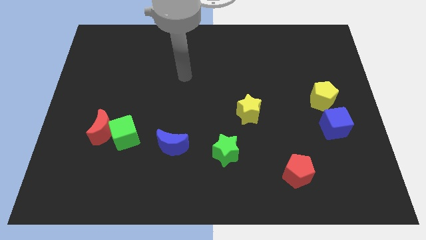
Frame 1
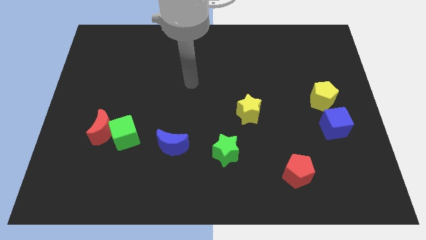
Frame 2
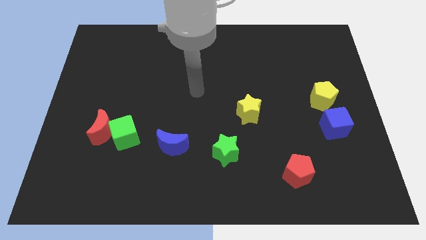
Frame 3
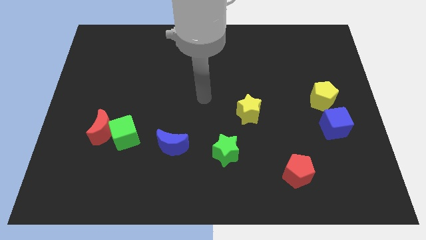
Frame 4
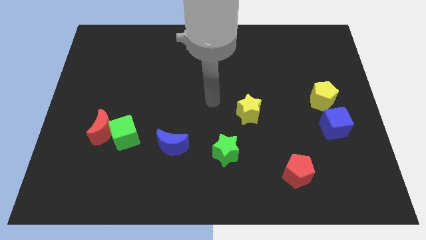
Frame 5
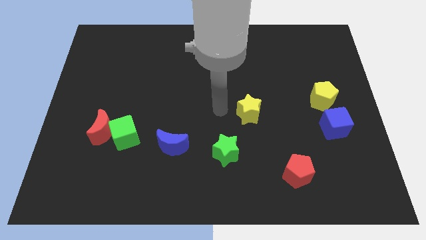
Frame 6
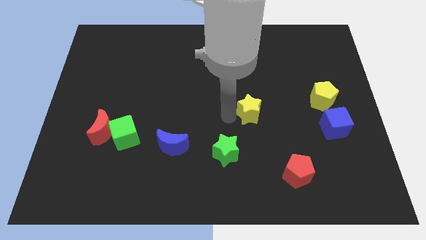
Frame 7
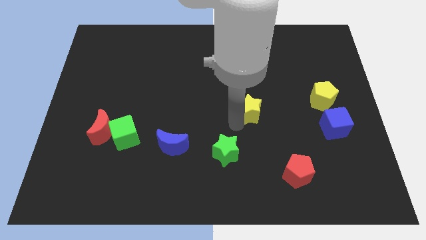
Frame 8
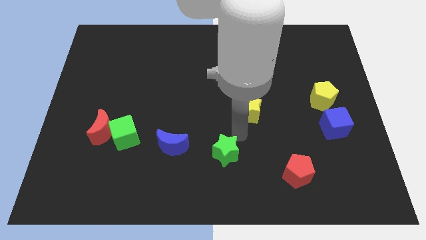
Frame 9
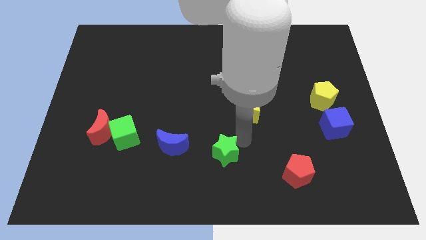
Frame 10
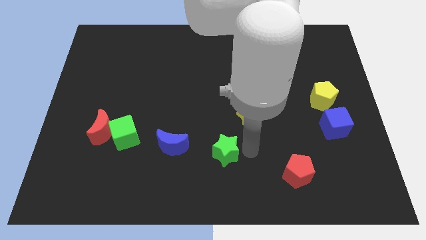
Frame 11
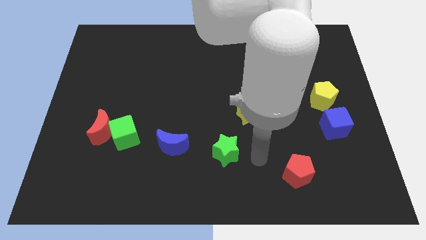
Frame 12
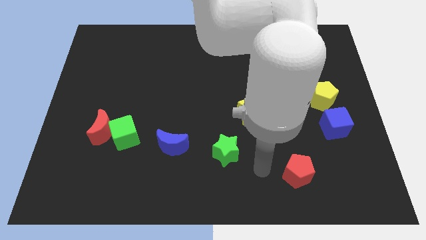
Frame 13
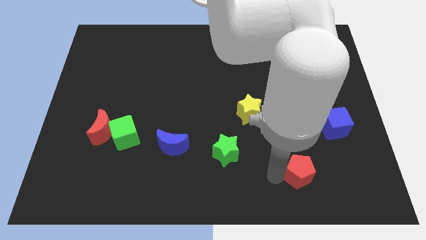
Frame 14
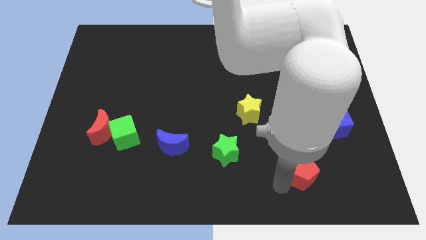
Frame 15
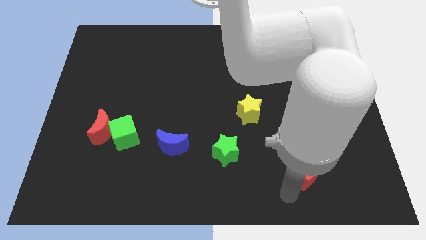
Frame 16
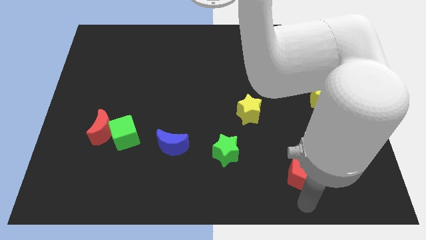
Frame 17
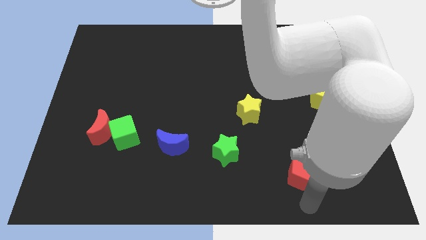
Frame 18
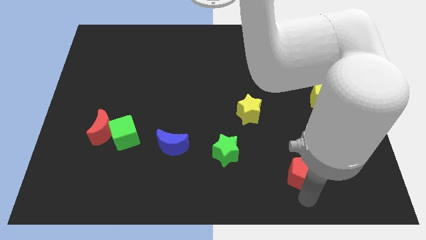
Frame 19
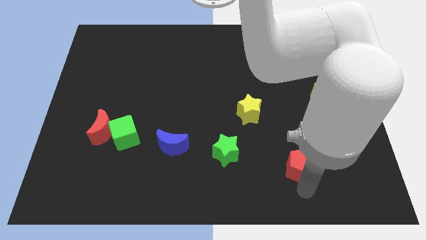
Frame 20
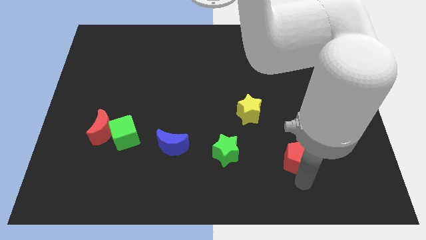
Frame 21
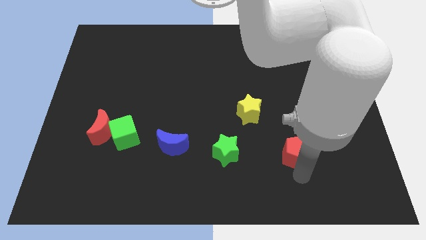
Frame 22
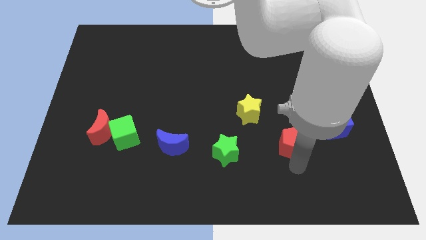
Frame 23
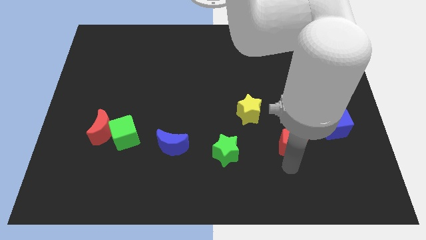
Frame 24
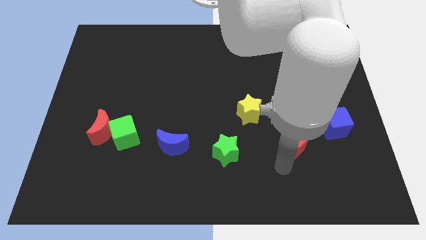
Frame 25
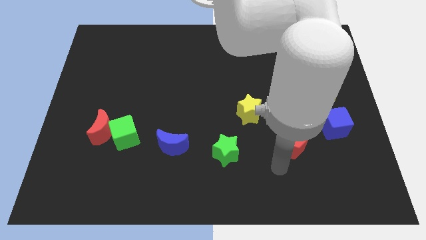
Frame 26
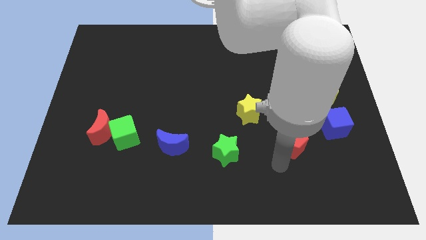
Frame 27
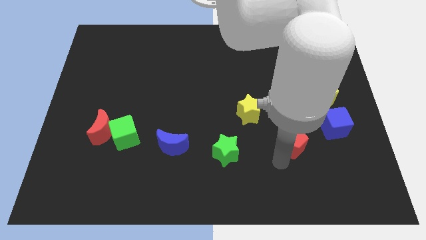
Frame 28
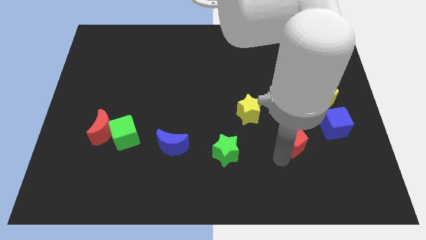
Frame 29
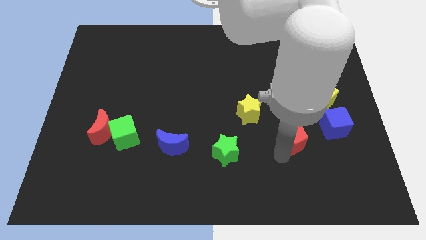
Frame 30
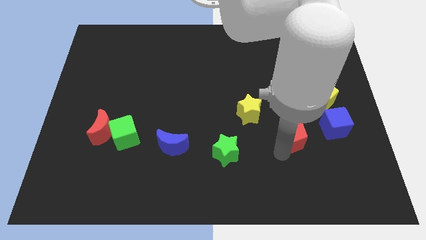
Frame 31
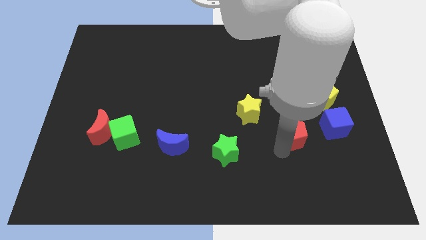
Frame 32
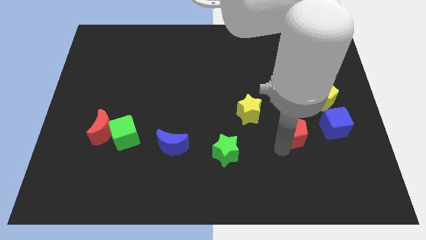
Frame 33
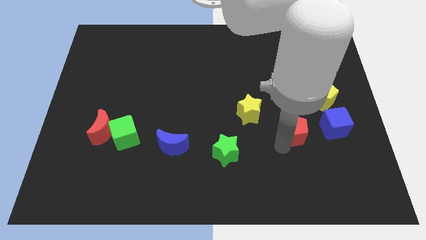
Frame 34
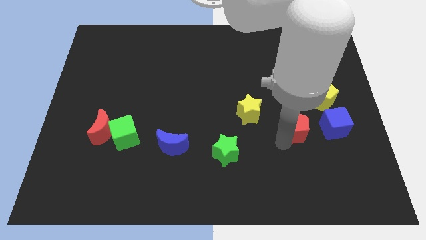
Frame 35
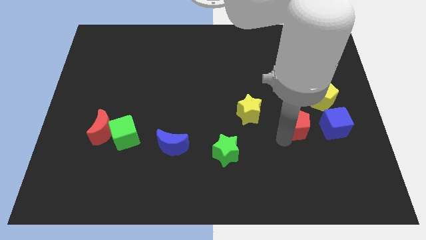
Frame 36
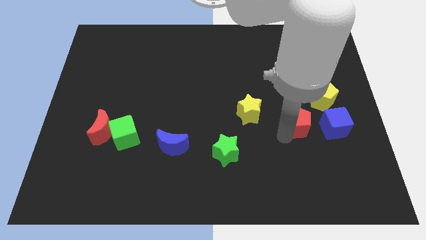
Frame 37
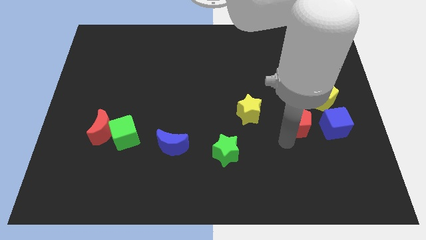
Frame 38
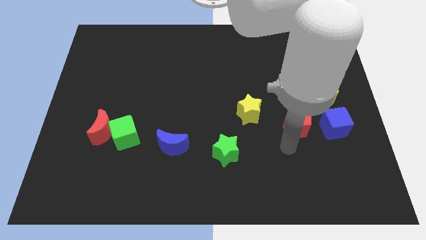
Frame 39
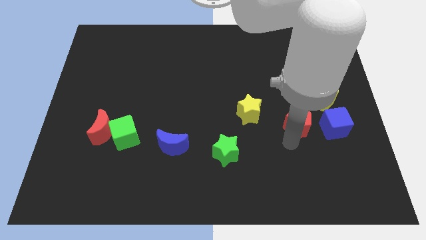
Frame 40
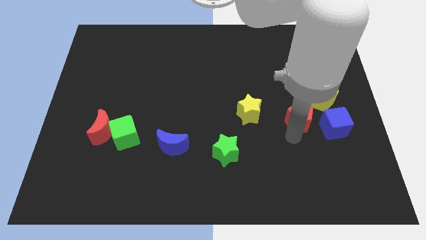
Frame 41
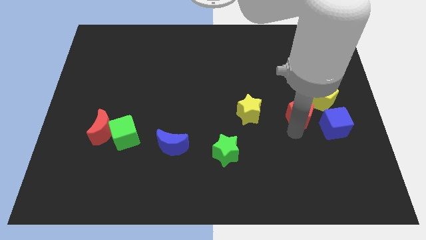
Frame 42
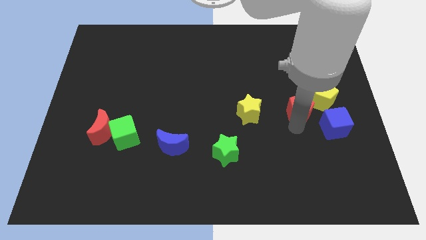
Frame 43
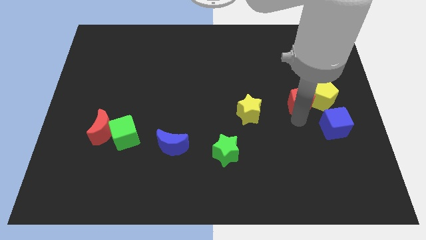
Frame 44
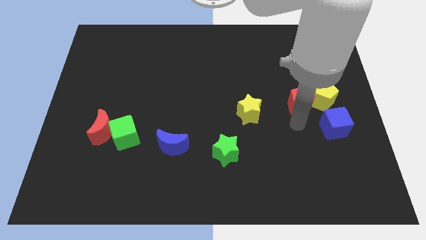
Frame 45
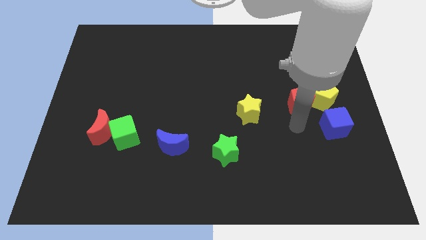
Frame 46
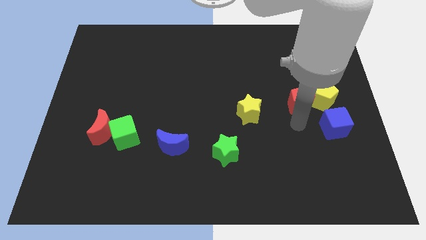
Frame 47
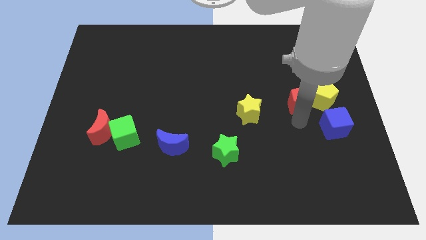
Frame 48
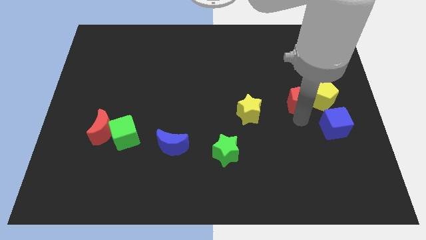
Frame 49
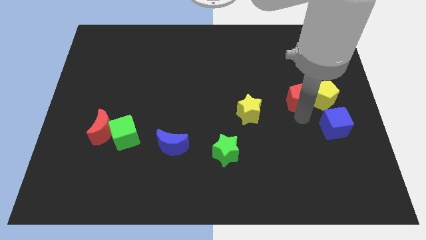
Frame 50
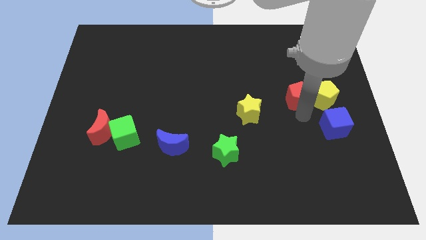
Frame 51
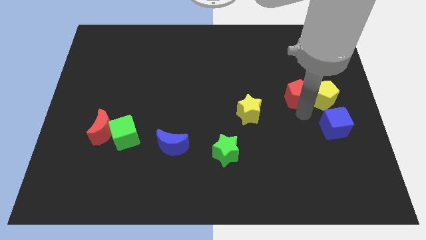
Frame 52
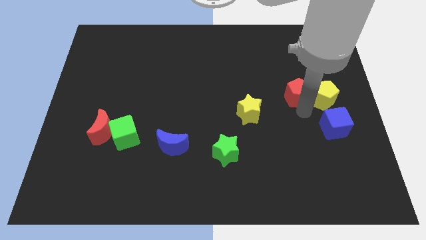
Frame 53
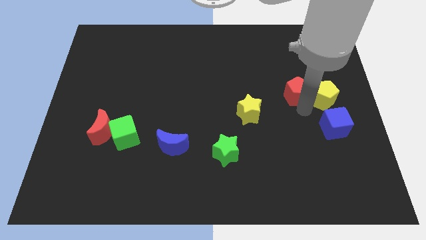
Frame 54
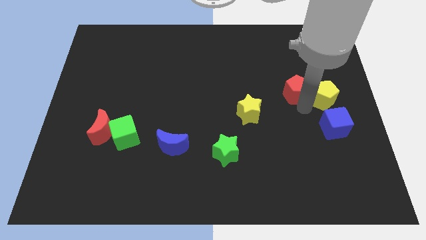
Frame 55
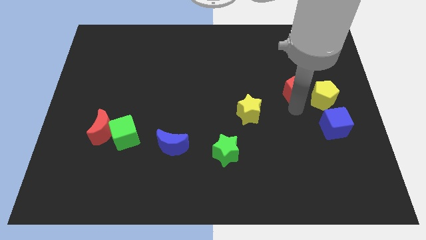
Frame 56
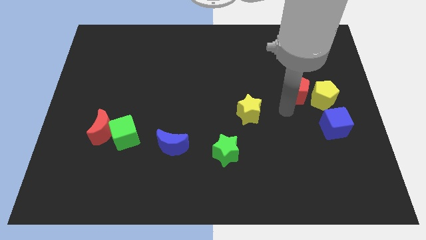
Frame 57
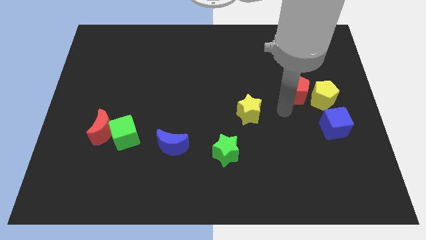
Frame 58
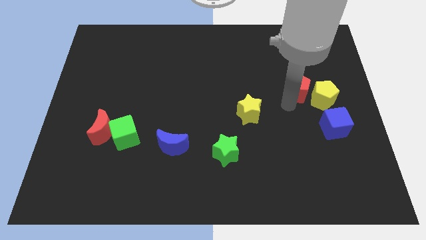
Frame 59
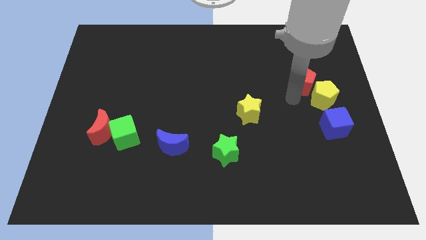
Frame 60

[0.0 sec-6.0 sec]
push the red pentagon above the yellow pentagon

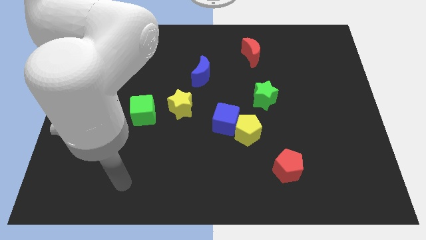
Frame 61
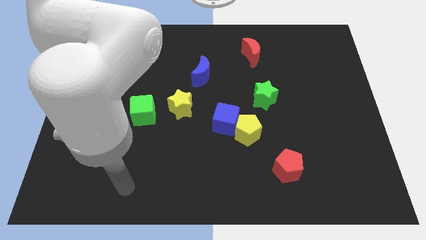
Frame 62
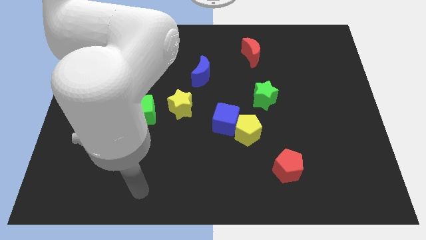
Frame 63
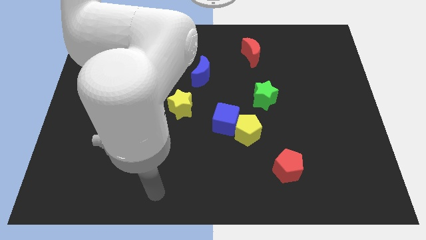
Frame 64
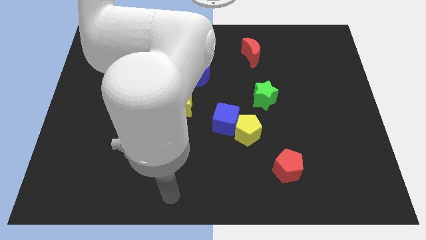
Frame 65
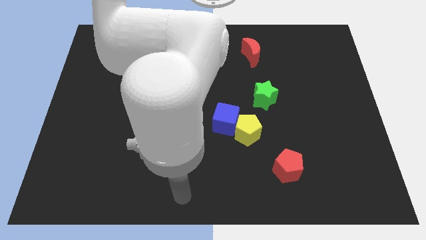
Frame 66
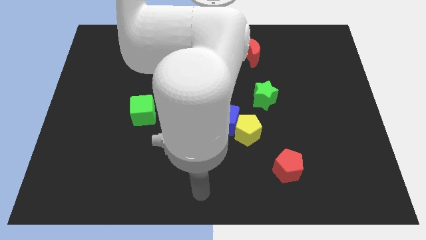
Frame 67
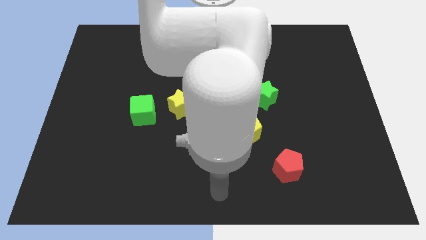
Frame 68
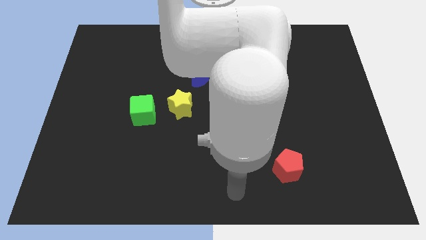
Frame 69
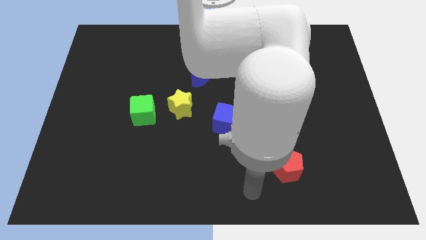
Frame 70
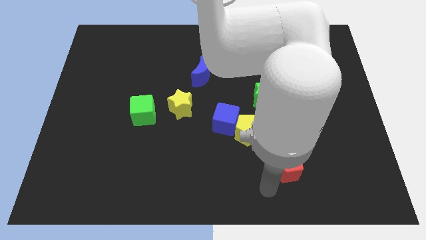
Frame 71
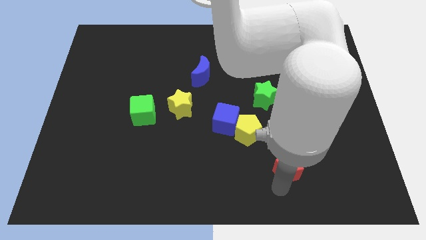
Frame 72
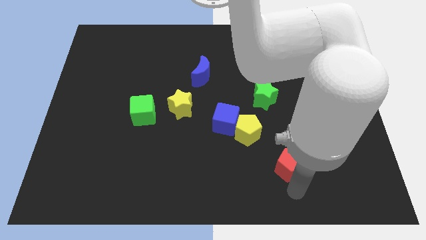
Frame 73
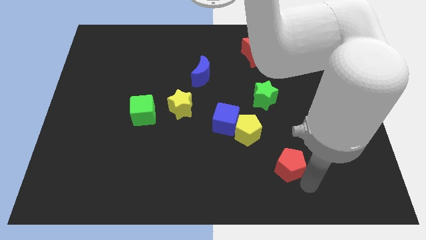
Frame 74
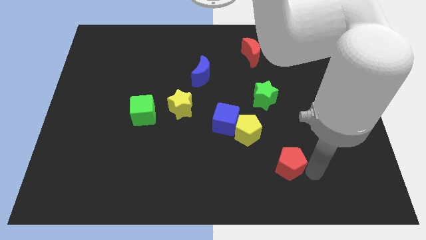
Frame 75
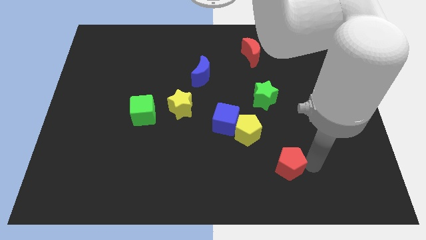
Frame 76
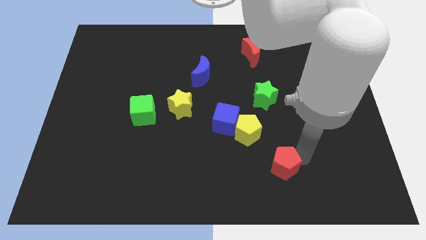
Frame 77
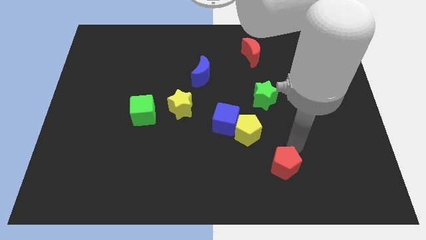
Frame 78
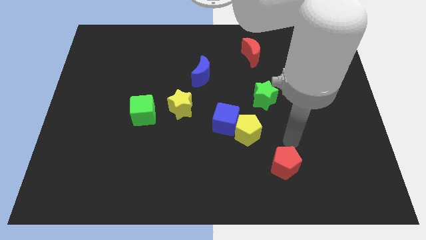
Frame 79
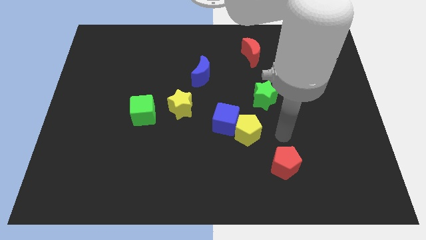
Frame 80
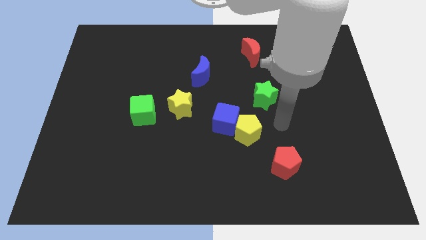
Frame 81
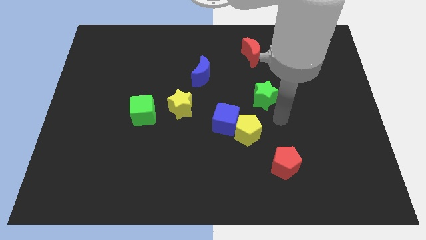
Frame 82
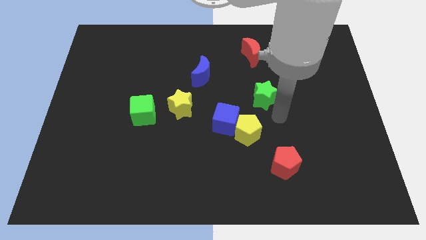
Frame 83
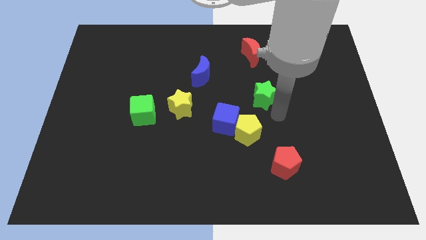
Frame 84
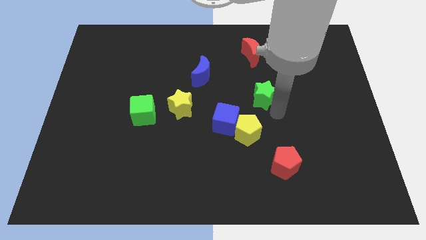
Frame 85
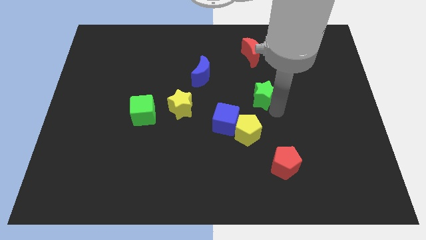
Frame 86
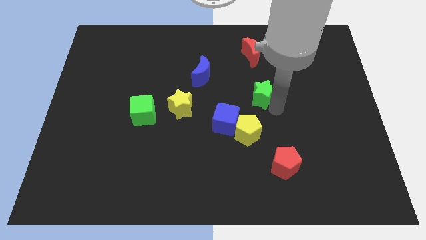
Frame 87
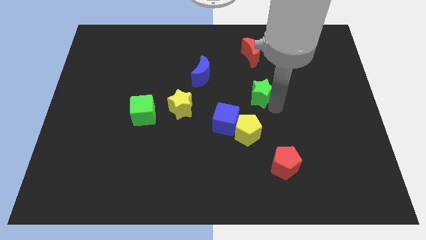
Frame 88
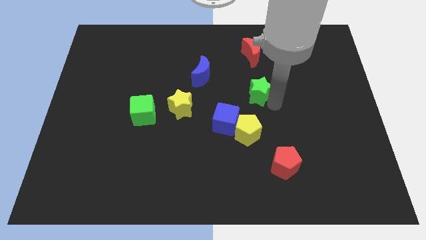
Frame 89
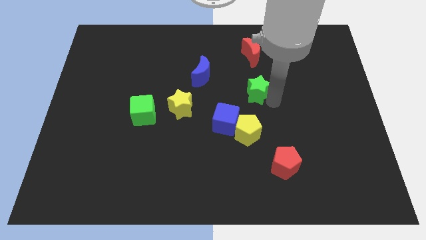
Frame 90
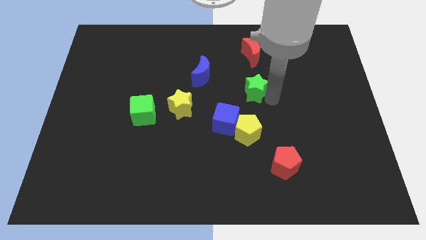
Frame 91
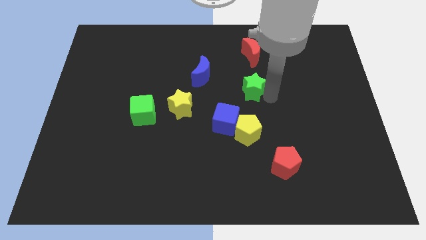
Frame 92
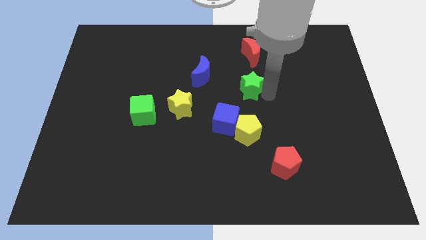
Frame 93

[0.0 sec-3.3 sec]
push the green star to the right of the blue moon
